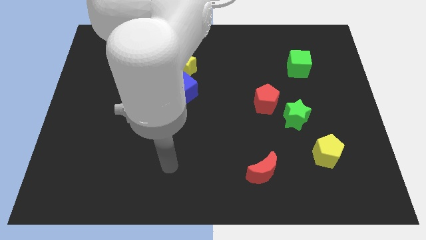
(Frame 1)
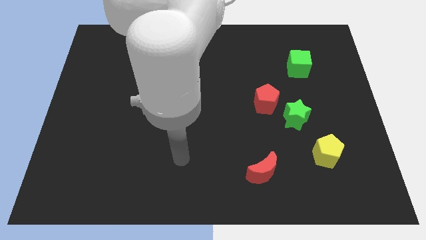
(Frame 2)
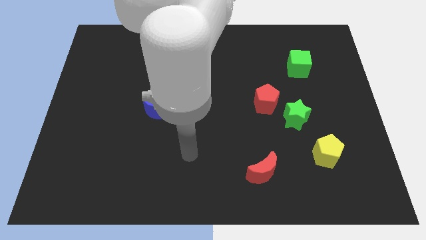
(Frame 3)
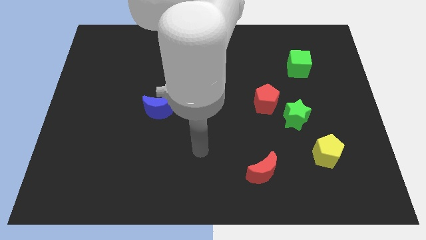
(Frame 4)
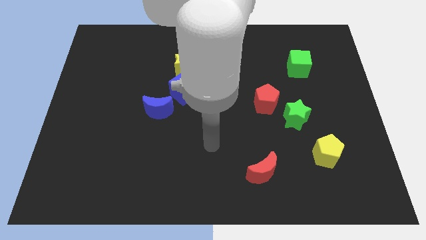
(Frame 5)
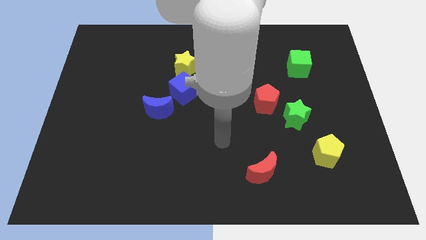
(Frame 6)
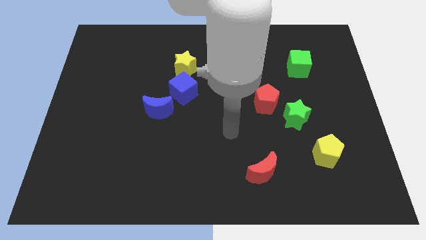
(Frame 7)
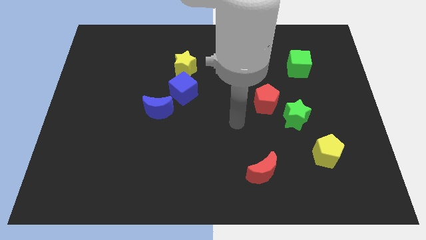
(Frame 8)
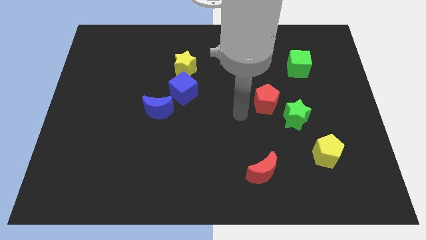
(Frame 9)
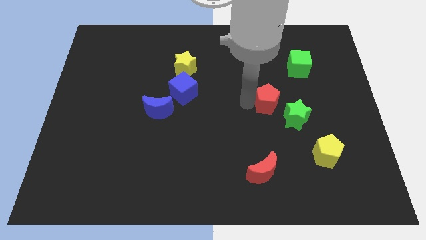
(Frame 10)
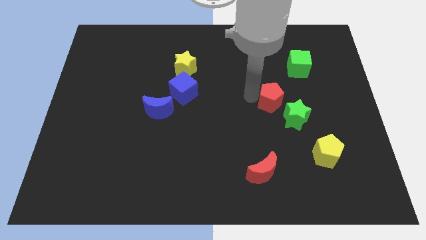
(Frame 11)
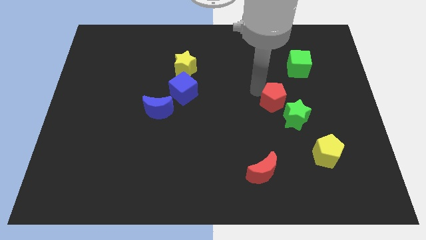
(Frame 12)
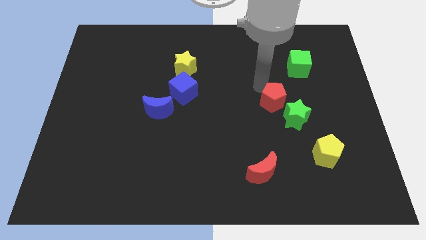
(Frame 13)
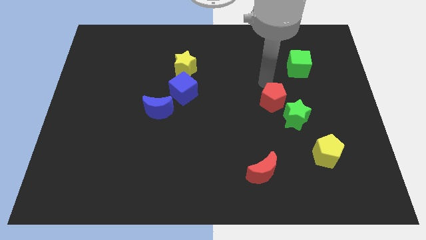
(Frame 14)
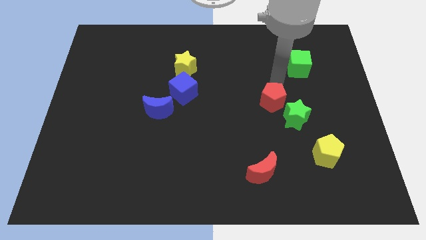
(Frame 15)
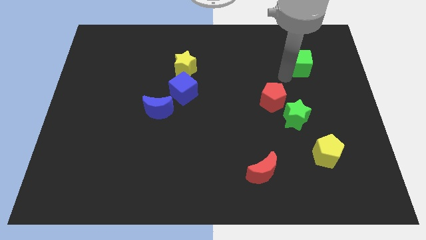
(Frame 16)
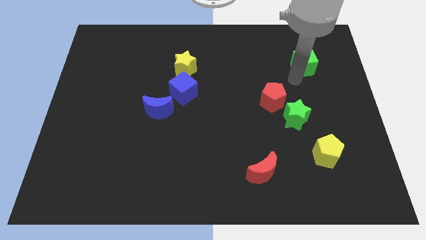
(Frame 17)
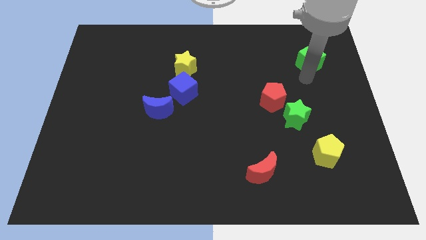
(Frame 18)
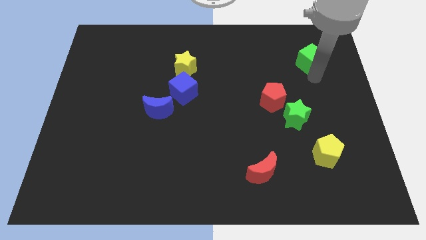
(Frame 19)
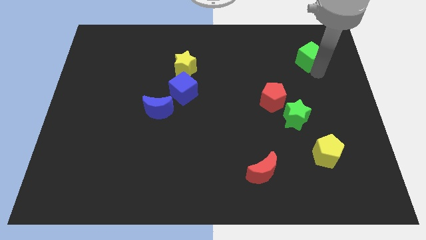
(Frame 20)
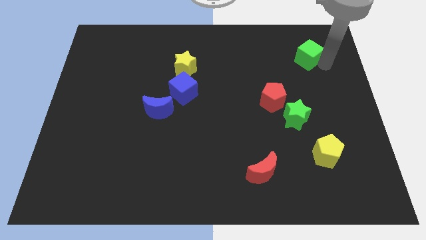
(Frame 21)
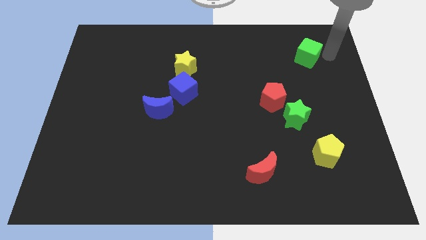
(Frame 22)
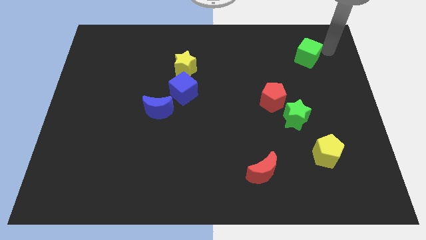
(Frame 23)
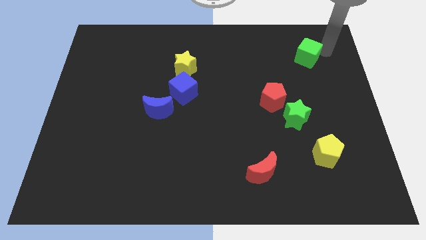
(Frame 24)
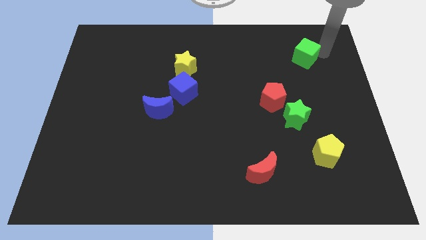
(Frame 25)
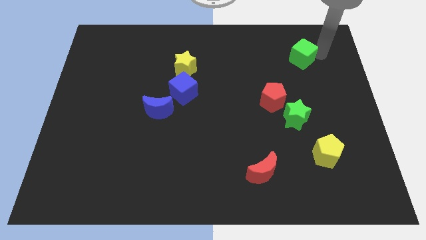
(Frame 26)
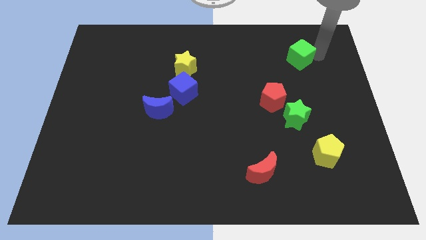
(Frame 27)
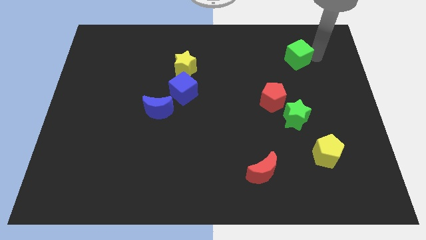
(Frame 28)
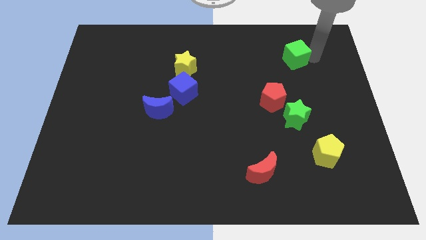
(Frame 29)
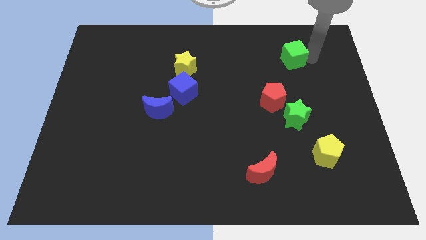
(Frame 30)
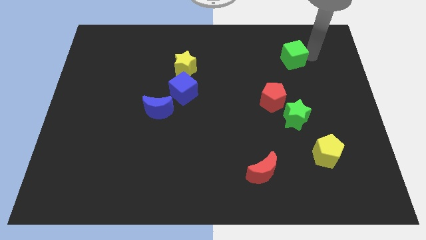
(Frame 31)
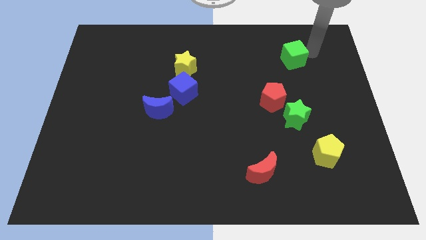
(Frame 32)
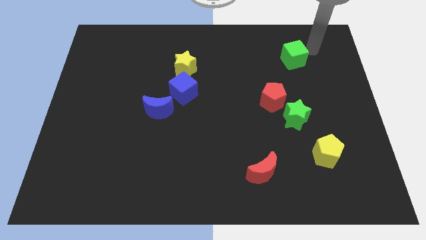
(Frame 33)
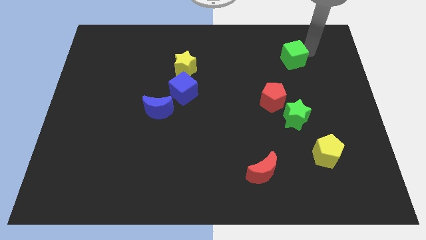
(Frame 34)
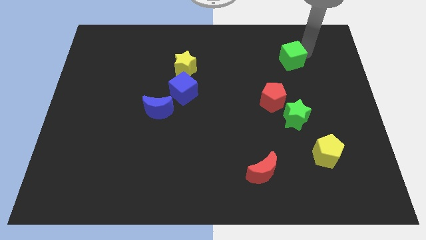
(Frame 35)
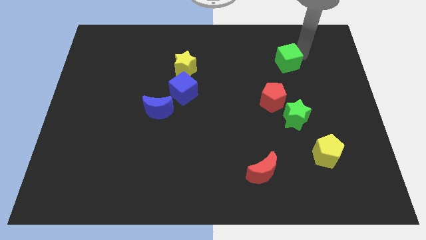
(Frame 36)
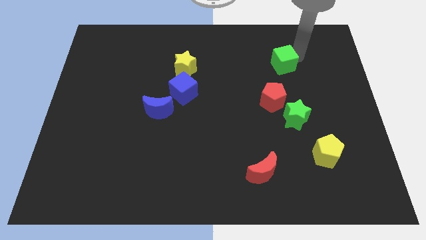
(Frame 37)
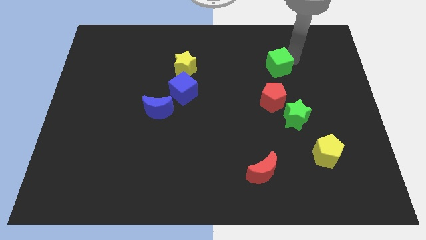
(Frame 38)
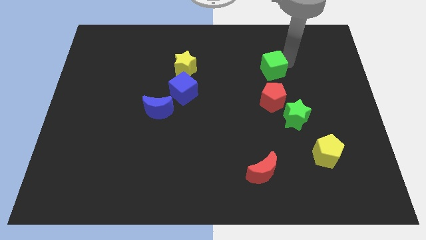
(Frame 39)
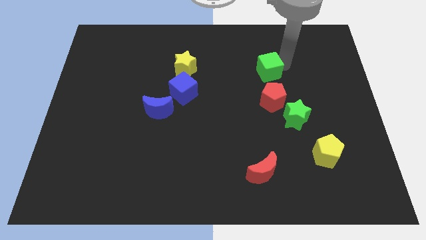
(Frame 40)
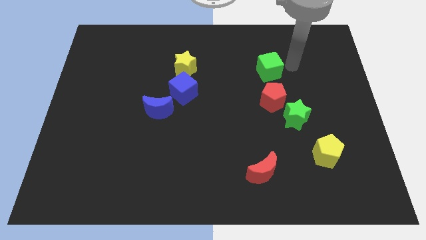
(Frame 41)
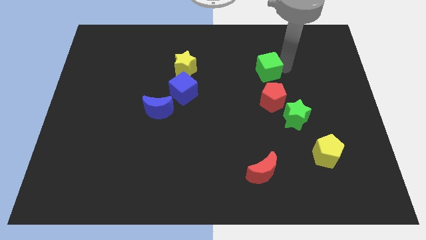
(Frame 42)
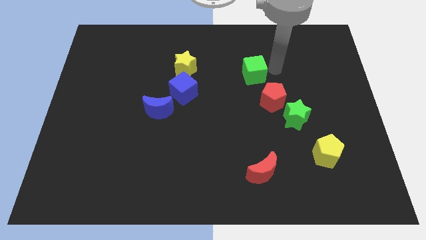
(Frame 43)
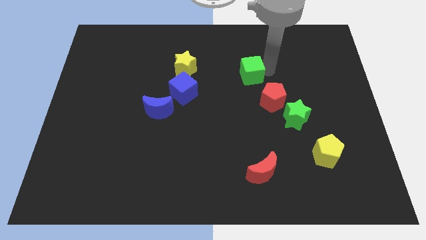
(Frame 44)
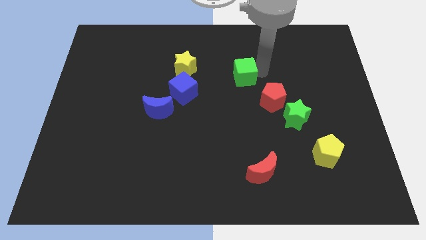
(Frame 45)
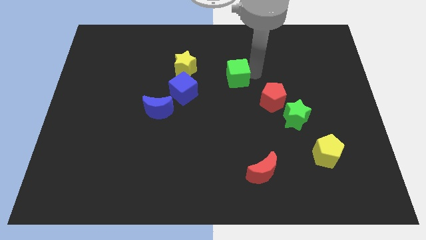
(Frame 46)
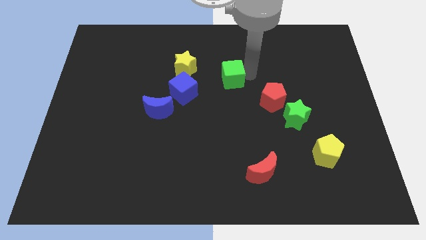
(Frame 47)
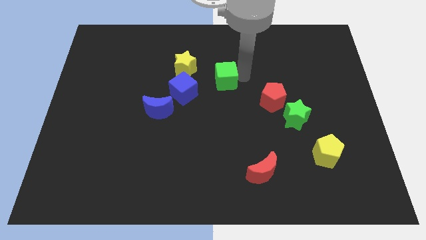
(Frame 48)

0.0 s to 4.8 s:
move the green cube to the top right of the blue cube

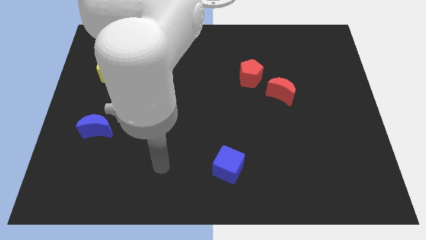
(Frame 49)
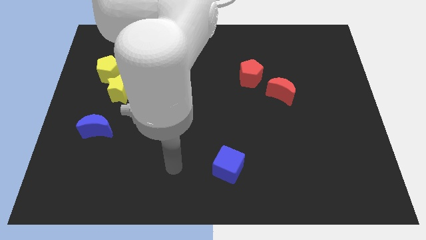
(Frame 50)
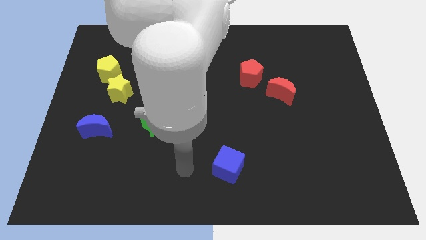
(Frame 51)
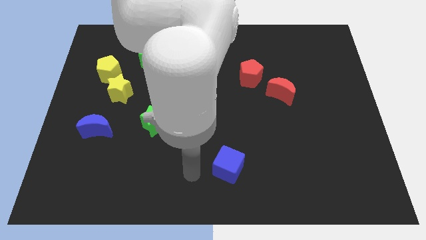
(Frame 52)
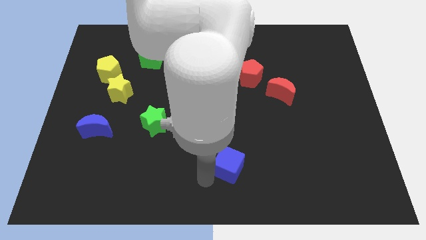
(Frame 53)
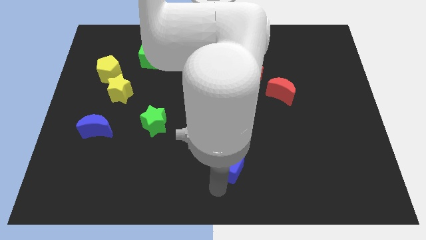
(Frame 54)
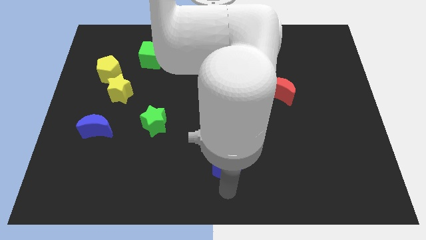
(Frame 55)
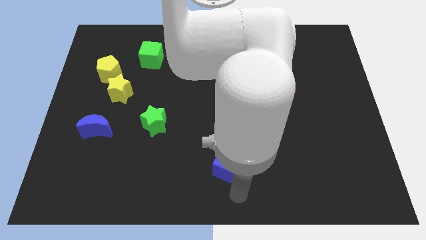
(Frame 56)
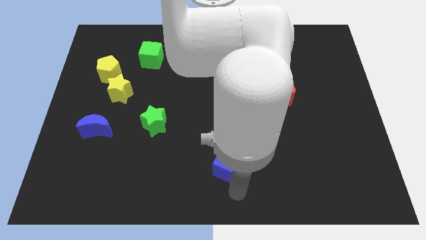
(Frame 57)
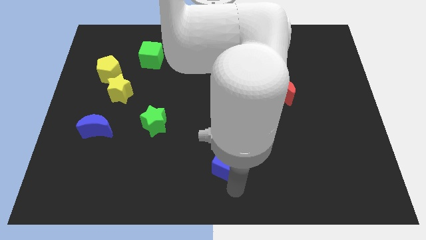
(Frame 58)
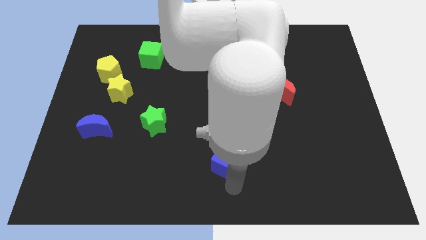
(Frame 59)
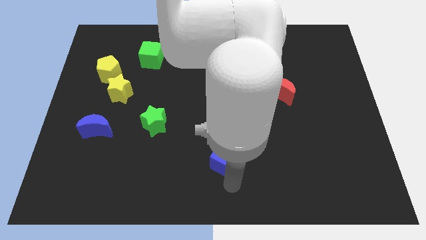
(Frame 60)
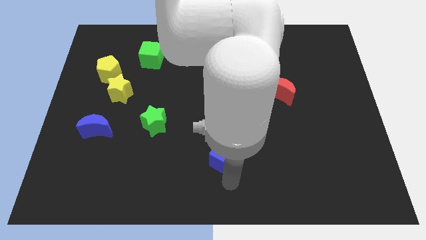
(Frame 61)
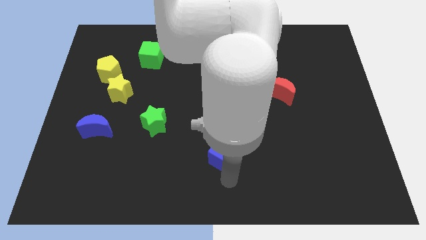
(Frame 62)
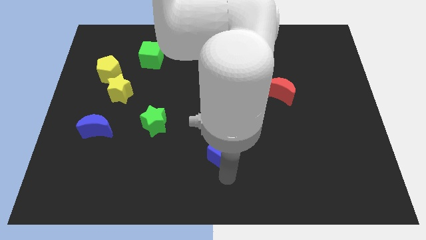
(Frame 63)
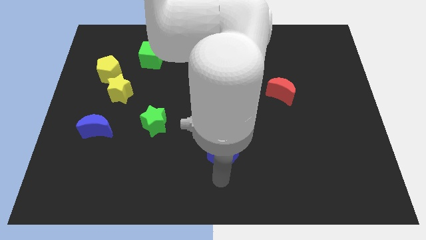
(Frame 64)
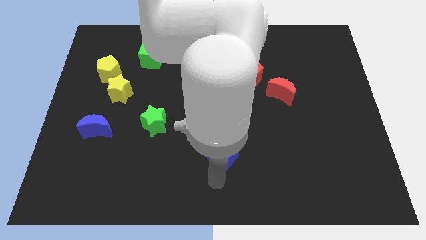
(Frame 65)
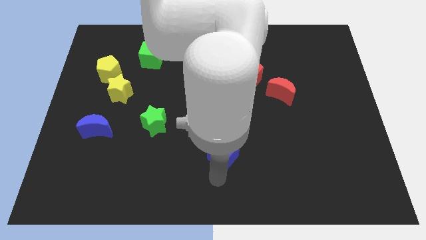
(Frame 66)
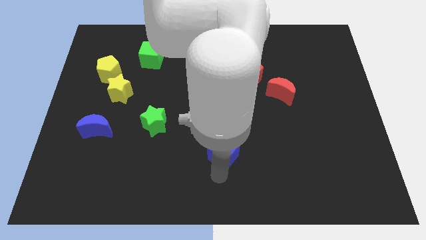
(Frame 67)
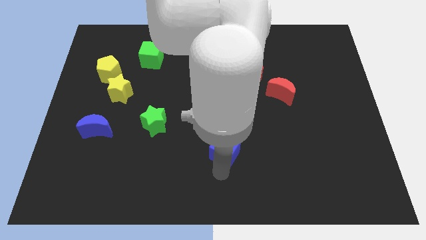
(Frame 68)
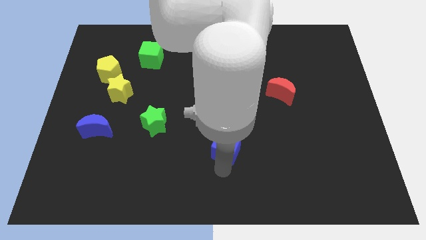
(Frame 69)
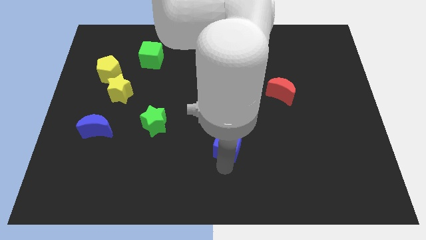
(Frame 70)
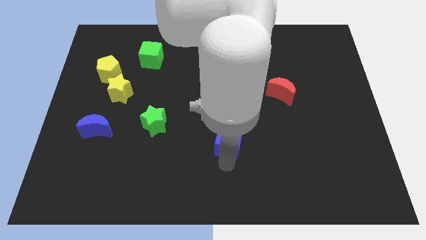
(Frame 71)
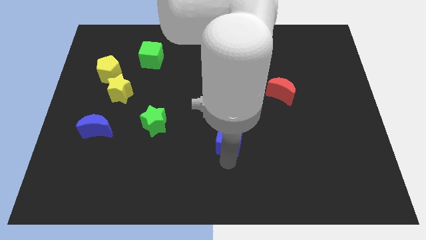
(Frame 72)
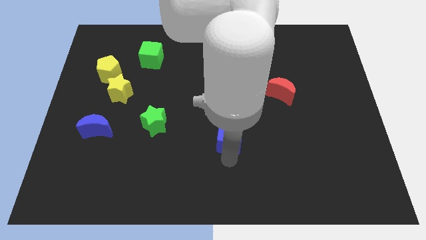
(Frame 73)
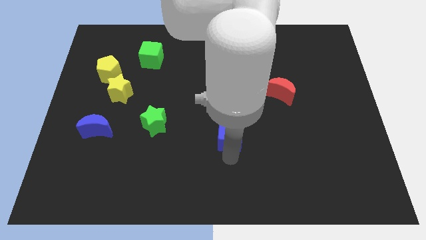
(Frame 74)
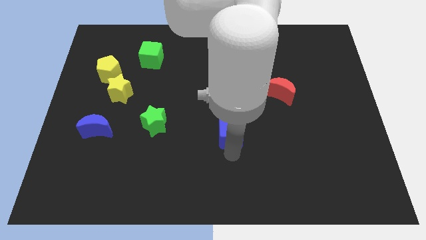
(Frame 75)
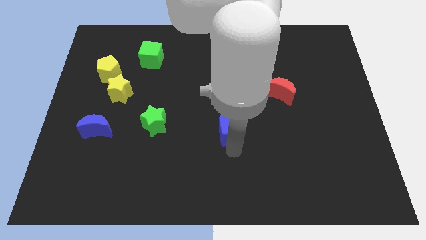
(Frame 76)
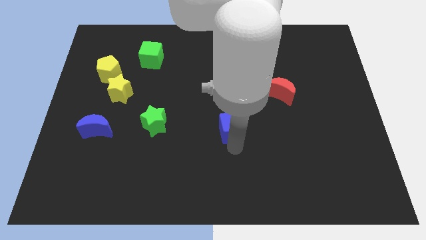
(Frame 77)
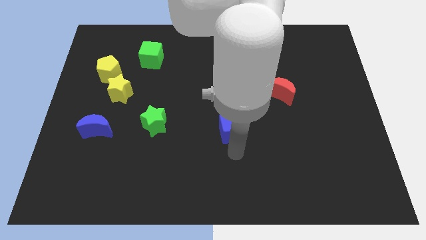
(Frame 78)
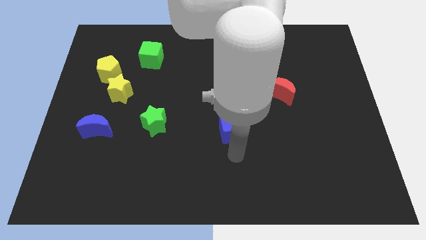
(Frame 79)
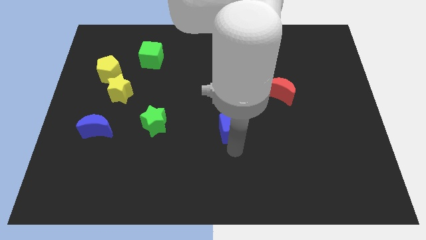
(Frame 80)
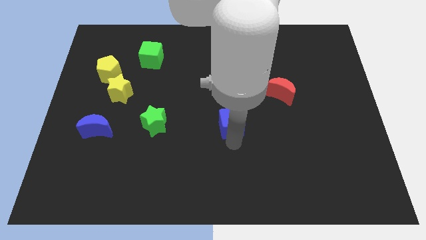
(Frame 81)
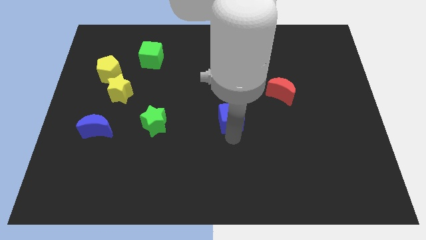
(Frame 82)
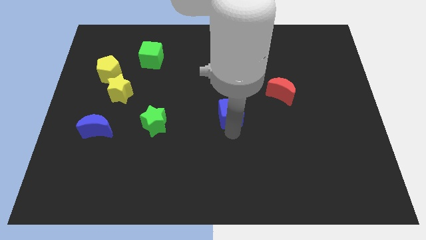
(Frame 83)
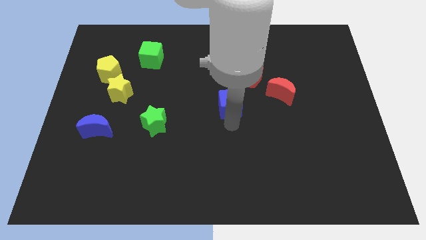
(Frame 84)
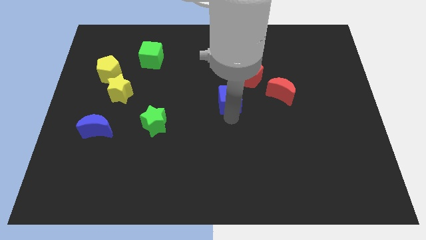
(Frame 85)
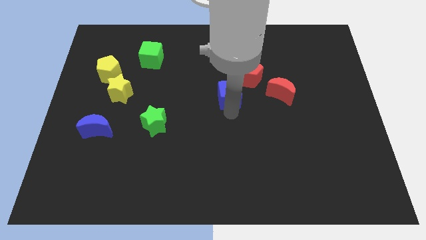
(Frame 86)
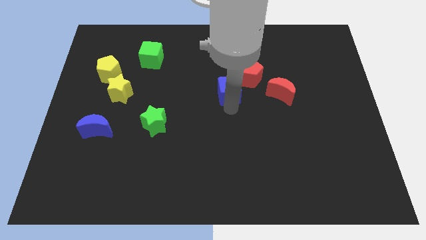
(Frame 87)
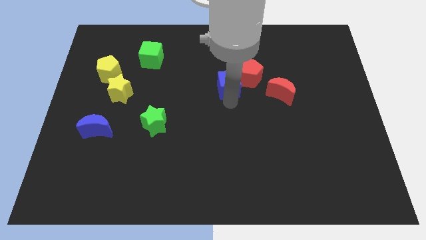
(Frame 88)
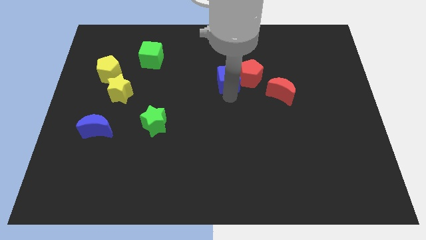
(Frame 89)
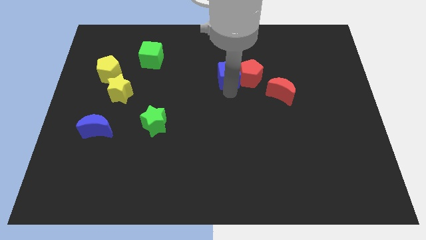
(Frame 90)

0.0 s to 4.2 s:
move the blue cube to the top left side of the red pentagon
